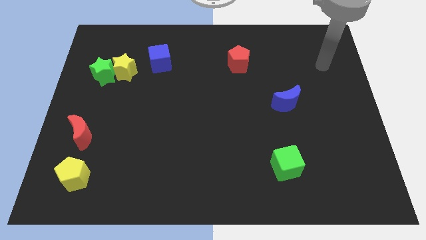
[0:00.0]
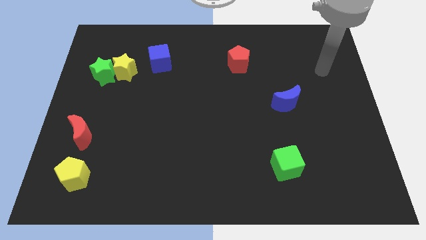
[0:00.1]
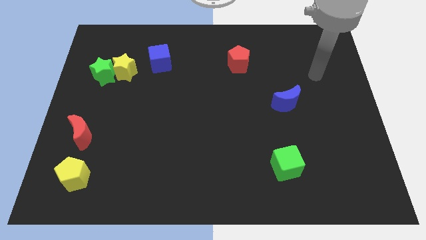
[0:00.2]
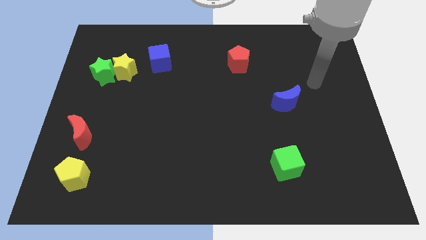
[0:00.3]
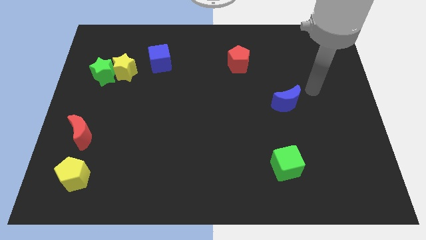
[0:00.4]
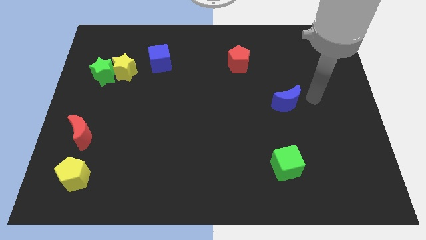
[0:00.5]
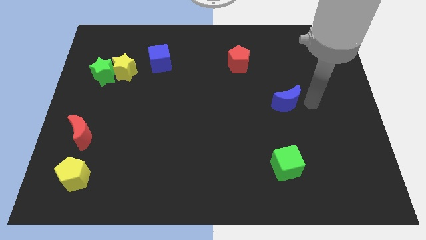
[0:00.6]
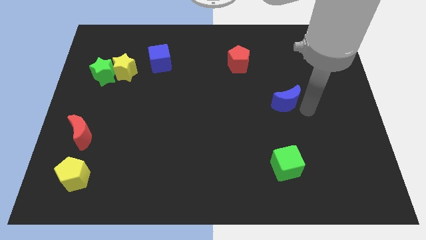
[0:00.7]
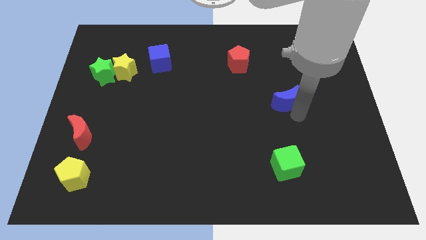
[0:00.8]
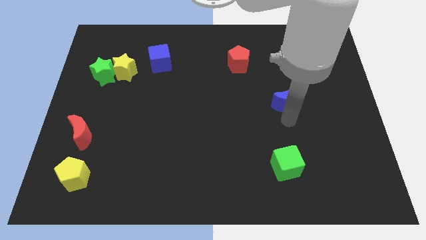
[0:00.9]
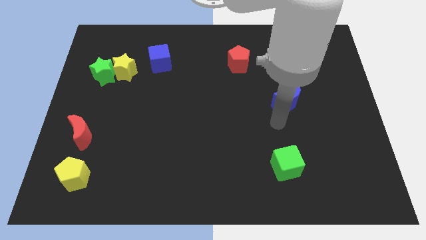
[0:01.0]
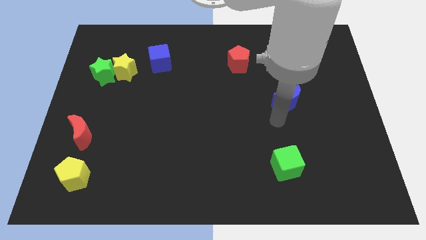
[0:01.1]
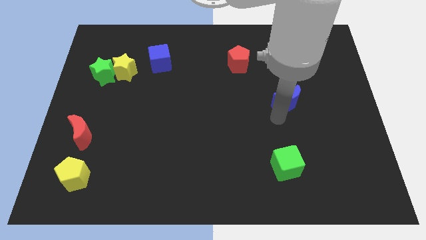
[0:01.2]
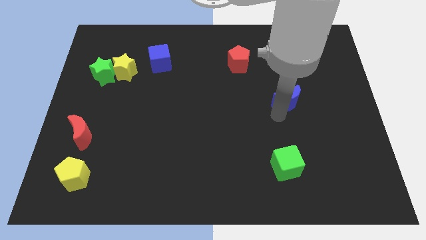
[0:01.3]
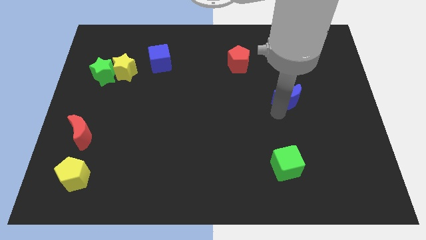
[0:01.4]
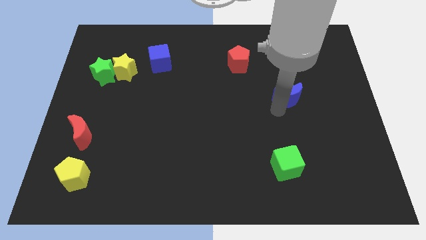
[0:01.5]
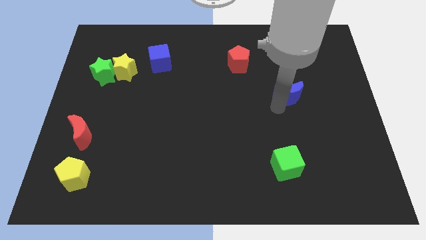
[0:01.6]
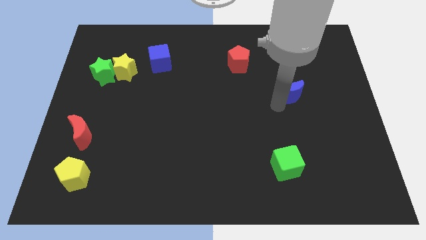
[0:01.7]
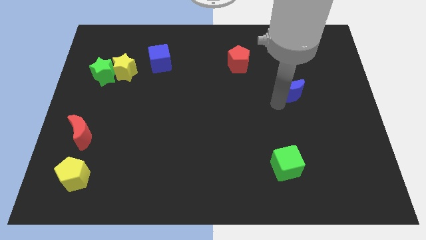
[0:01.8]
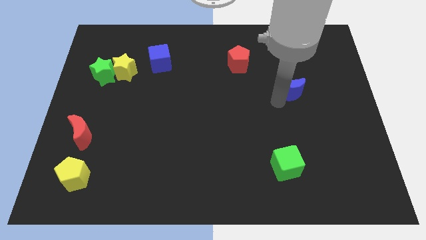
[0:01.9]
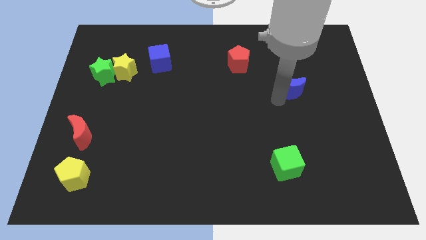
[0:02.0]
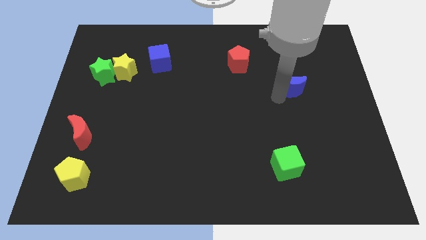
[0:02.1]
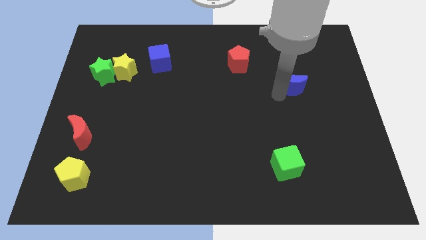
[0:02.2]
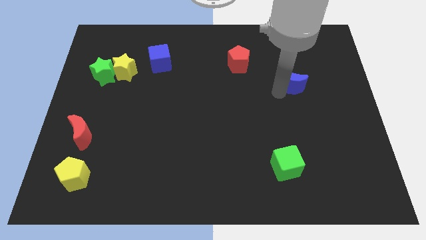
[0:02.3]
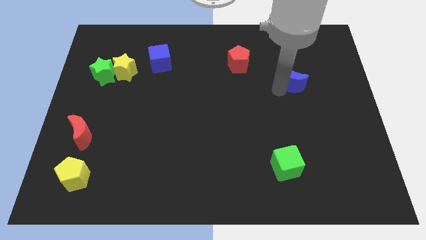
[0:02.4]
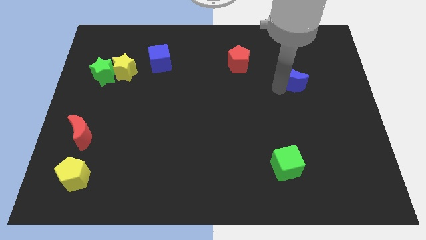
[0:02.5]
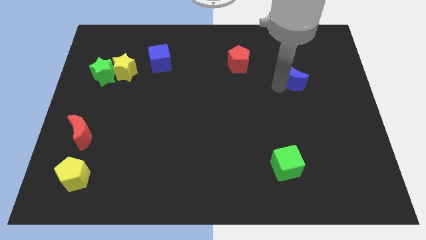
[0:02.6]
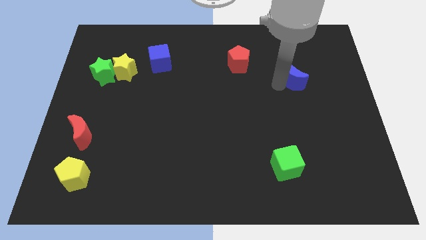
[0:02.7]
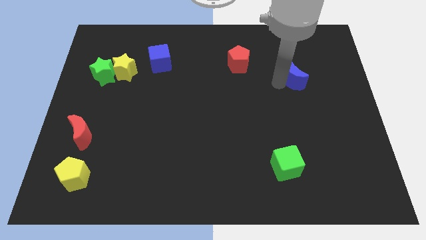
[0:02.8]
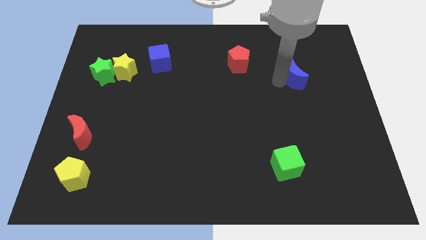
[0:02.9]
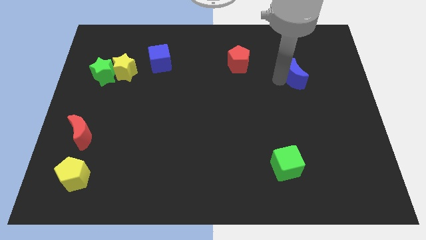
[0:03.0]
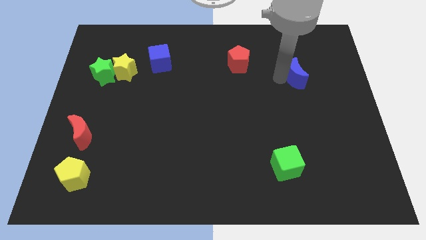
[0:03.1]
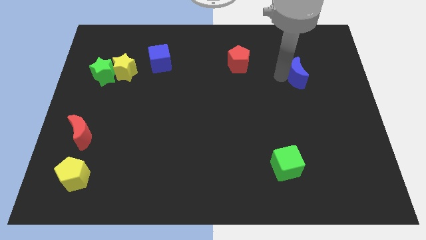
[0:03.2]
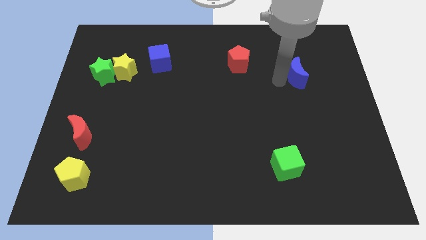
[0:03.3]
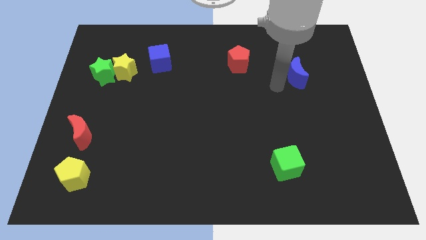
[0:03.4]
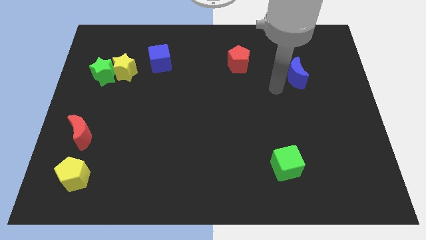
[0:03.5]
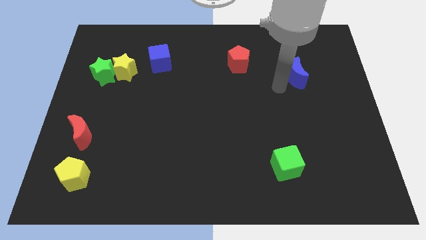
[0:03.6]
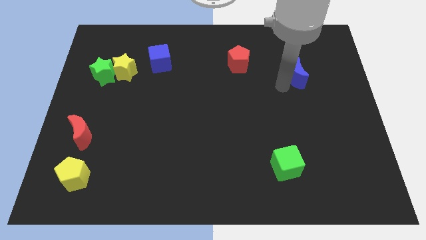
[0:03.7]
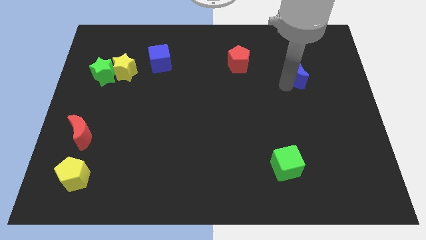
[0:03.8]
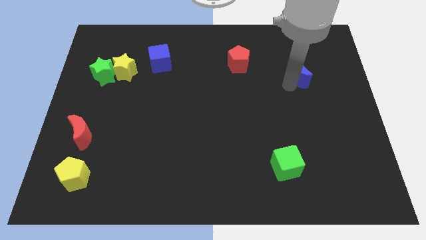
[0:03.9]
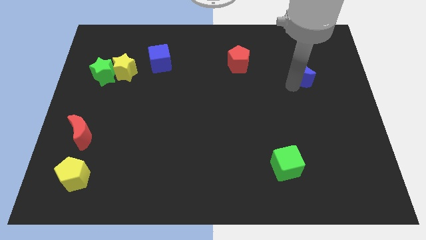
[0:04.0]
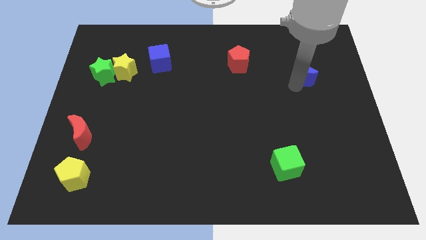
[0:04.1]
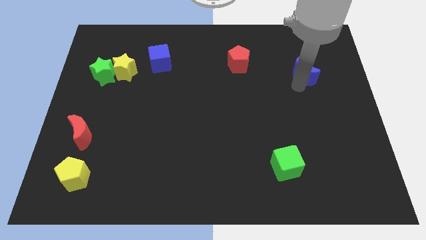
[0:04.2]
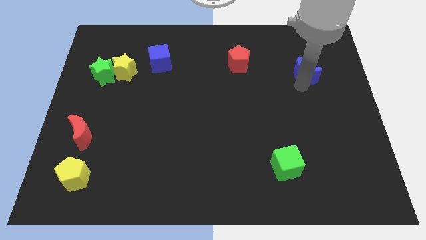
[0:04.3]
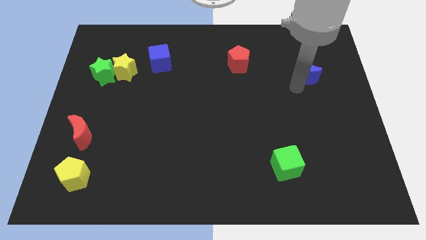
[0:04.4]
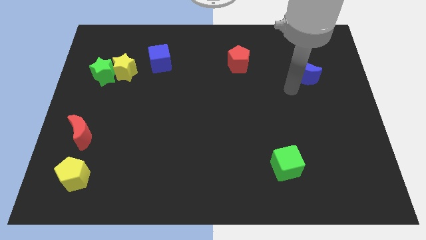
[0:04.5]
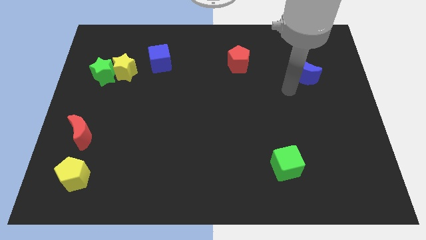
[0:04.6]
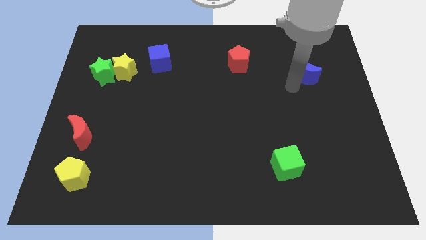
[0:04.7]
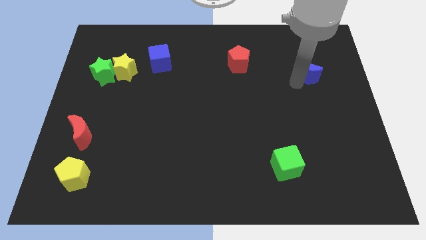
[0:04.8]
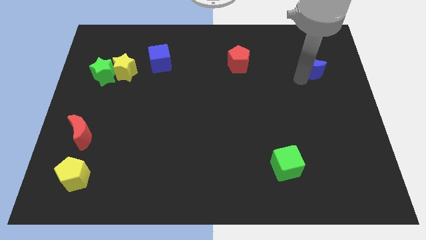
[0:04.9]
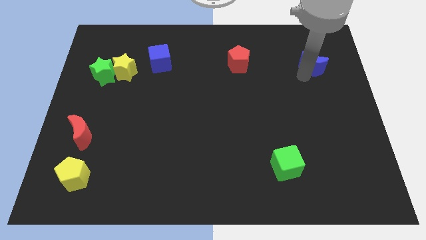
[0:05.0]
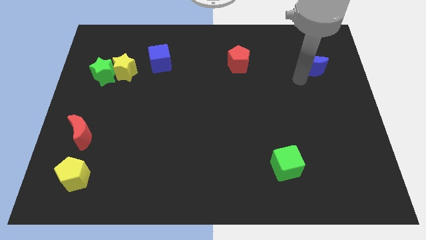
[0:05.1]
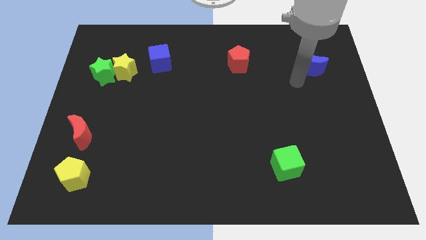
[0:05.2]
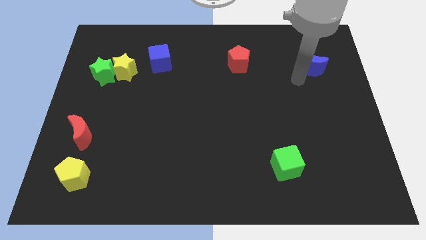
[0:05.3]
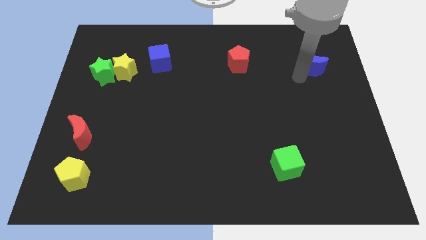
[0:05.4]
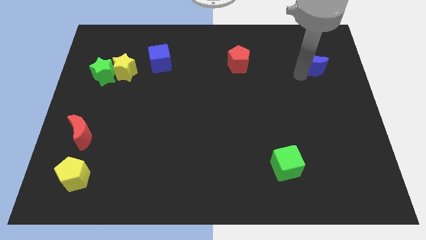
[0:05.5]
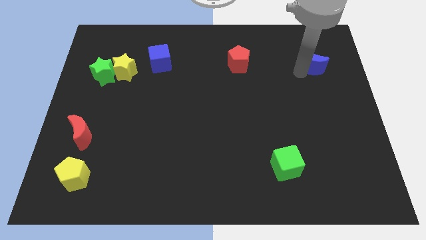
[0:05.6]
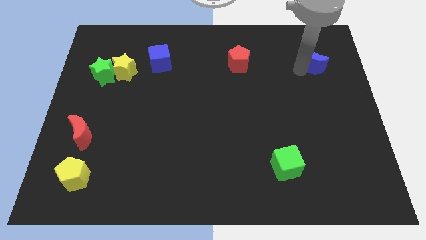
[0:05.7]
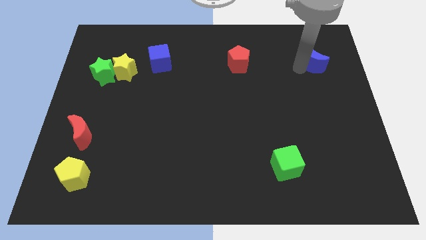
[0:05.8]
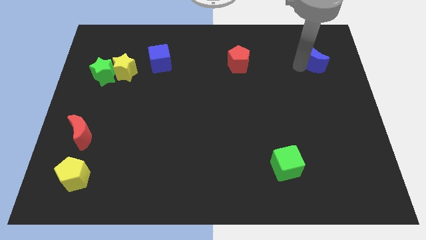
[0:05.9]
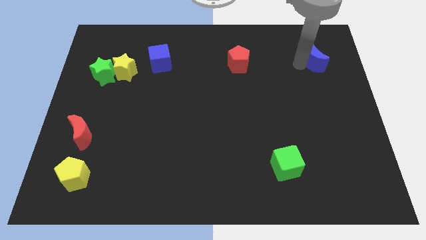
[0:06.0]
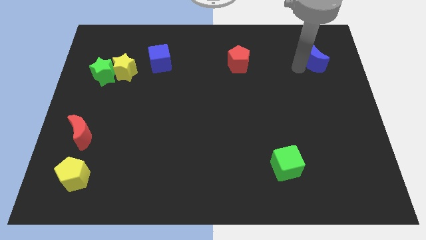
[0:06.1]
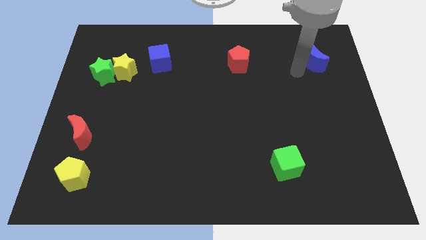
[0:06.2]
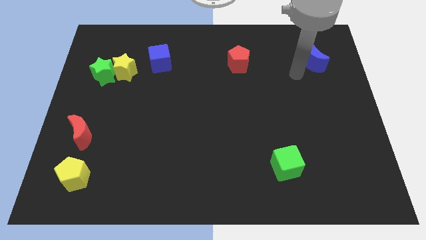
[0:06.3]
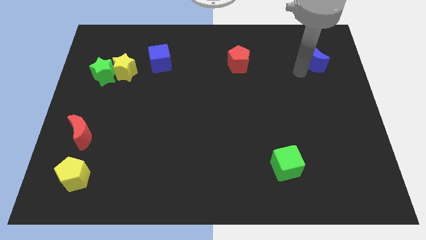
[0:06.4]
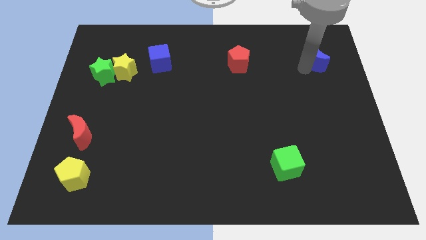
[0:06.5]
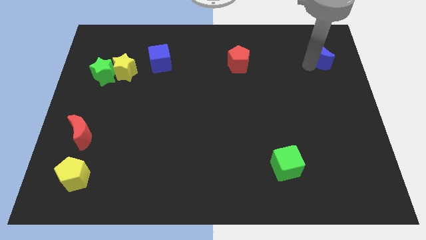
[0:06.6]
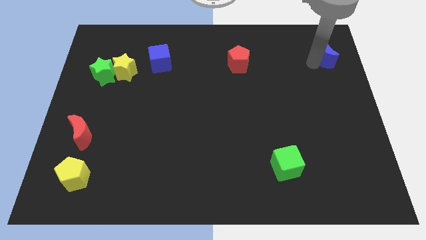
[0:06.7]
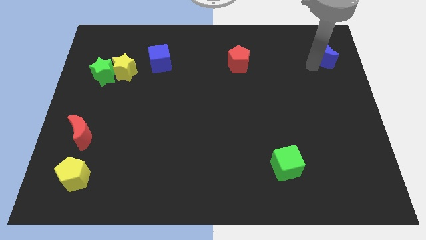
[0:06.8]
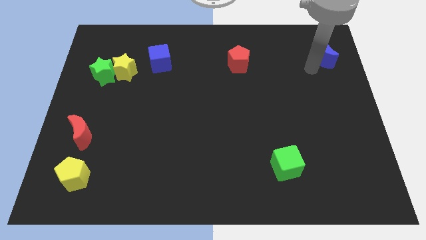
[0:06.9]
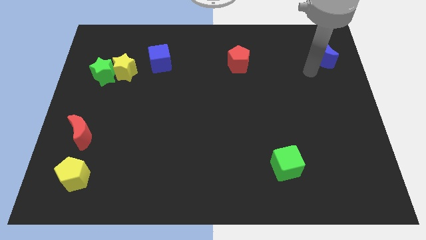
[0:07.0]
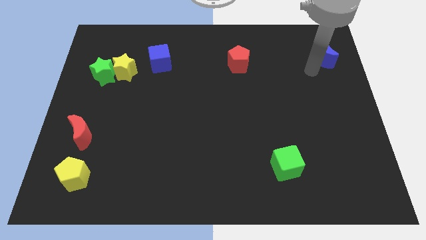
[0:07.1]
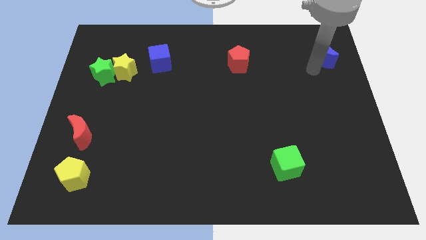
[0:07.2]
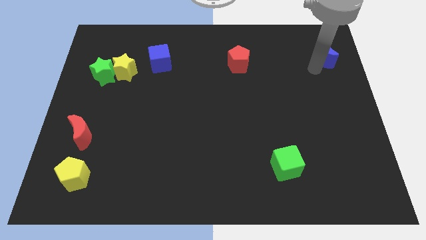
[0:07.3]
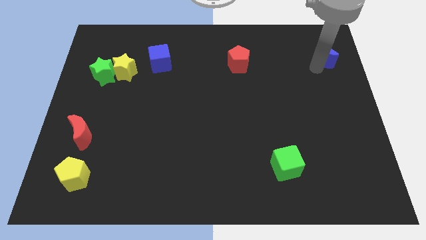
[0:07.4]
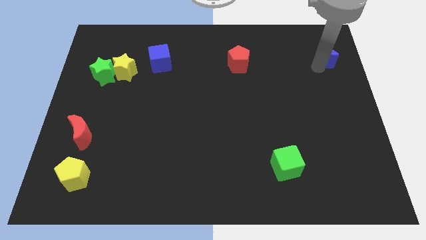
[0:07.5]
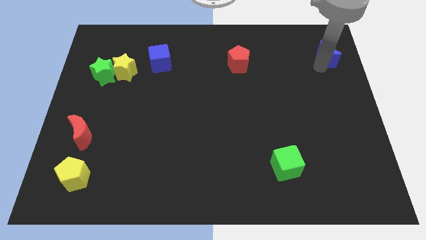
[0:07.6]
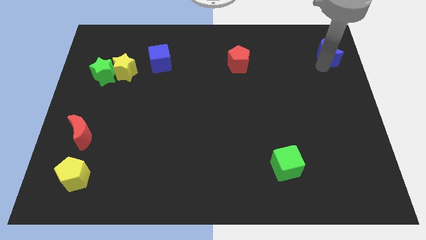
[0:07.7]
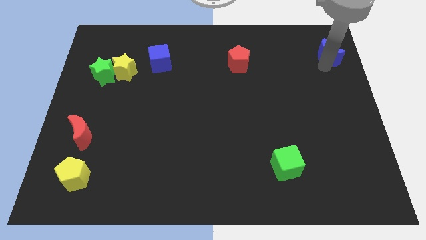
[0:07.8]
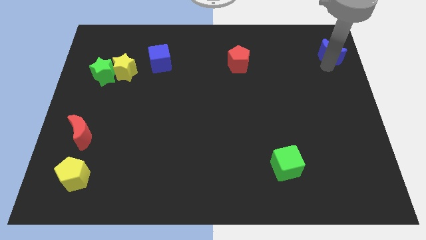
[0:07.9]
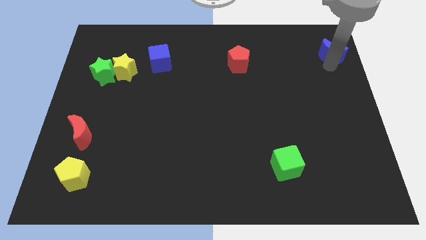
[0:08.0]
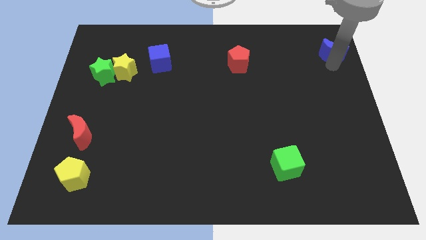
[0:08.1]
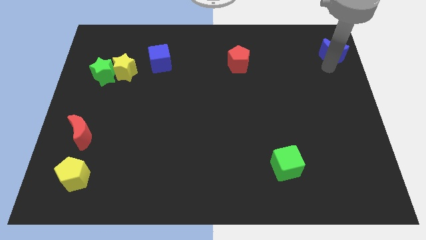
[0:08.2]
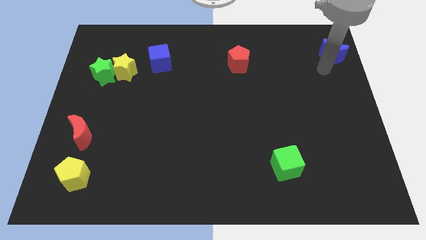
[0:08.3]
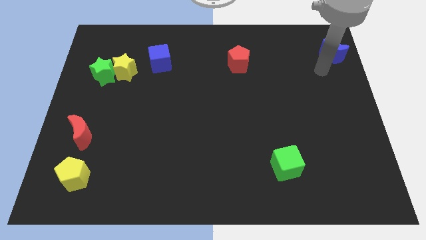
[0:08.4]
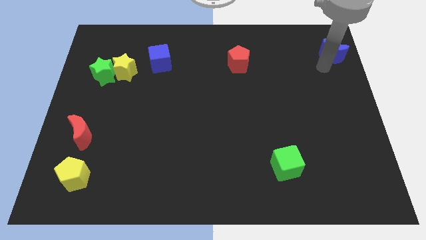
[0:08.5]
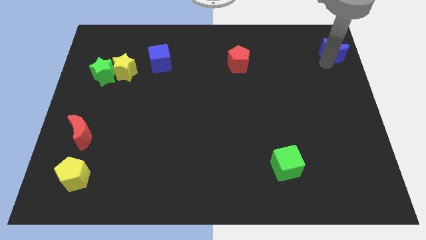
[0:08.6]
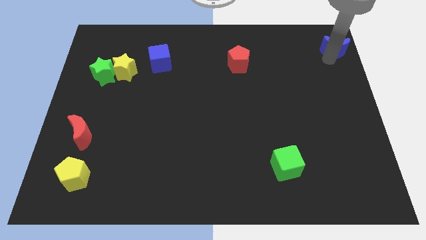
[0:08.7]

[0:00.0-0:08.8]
move the blue moon to the top right of the board
